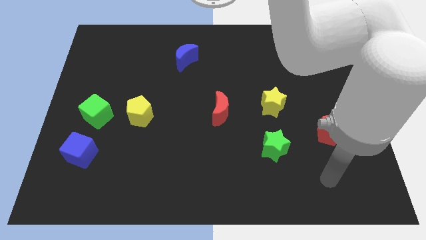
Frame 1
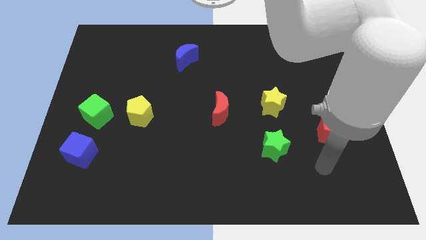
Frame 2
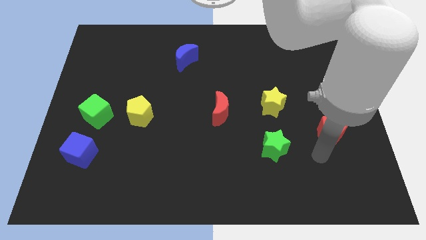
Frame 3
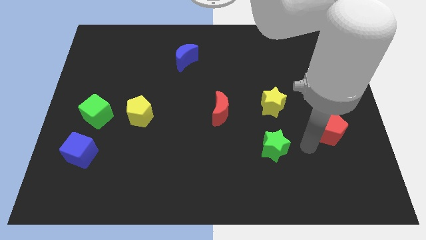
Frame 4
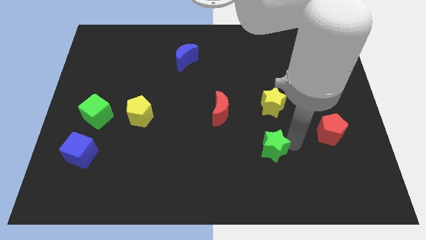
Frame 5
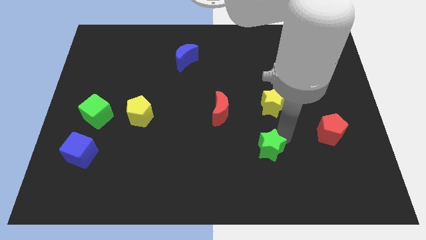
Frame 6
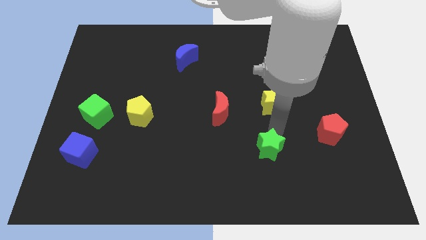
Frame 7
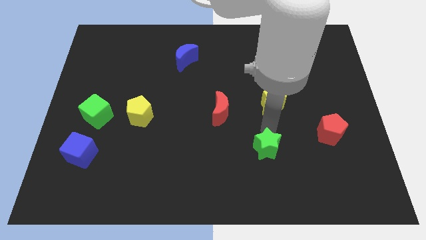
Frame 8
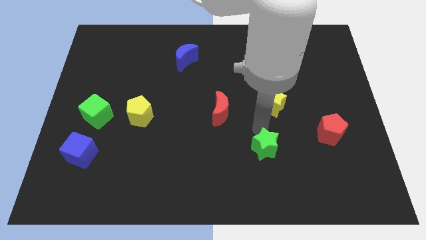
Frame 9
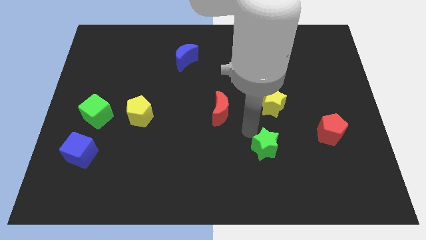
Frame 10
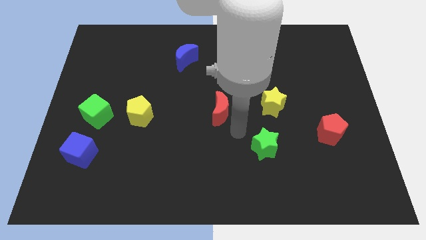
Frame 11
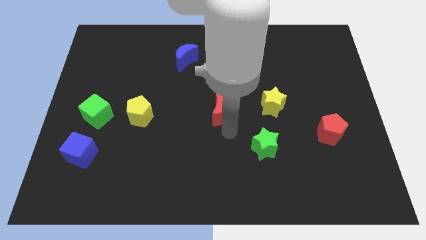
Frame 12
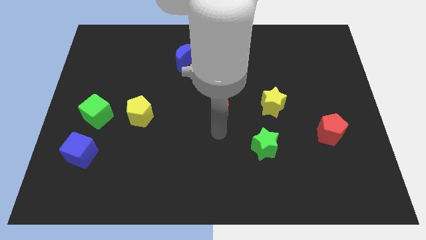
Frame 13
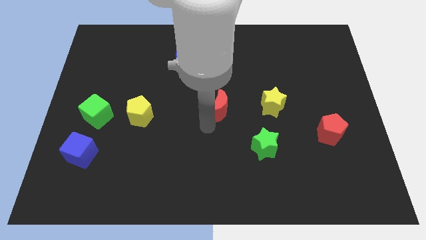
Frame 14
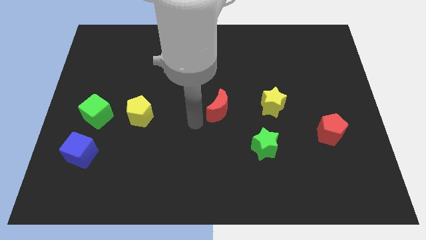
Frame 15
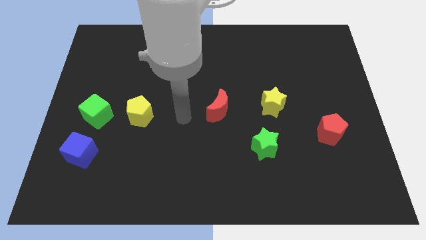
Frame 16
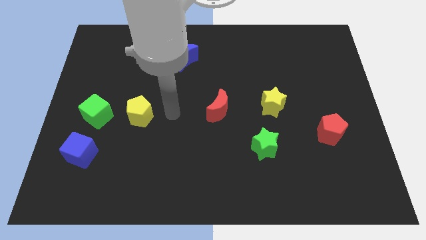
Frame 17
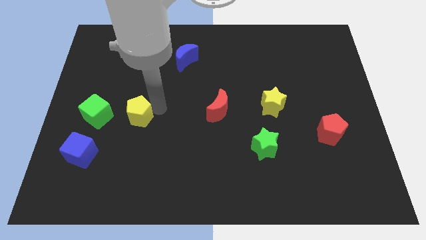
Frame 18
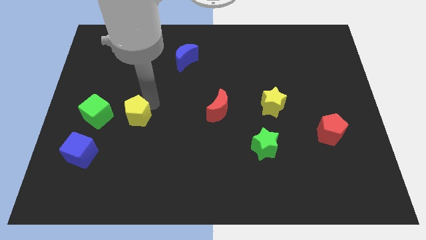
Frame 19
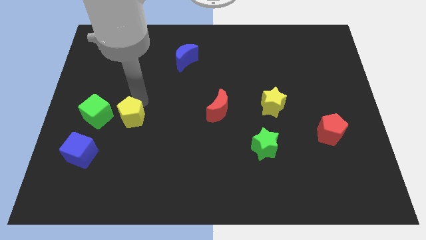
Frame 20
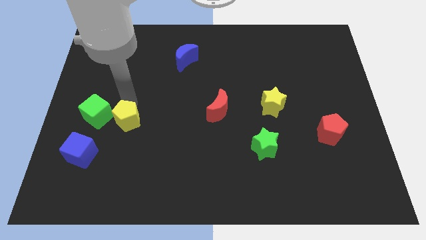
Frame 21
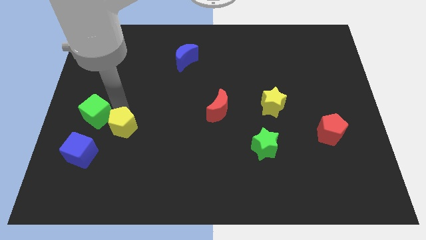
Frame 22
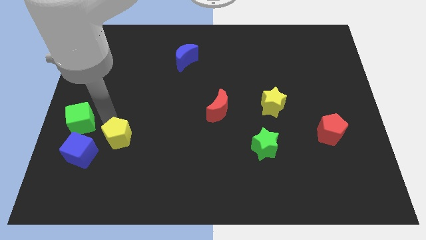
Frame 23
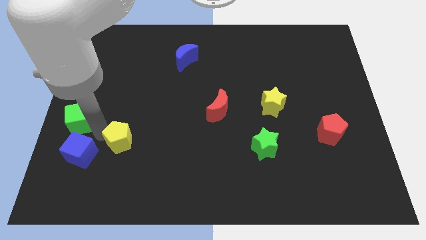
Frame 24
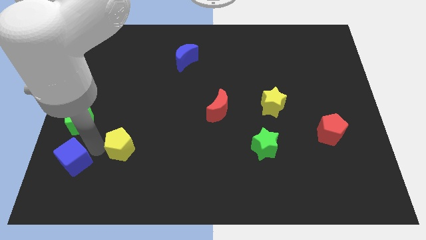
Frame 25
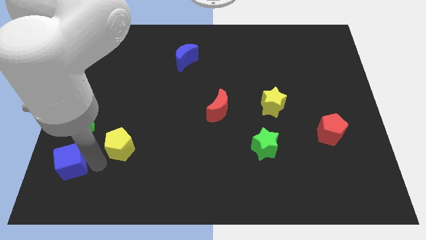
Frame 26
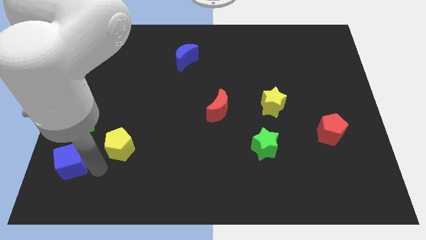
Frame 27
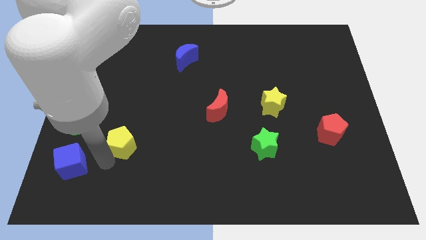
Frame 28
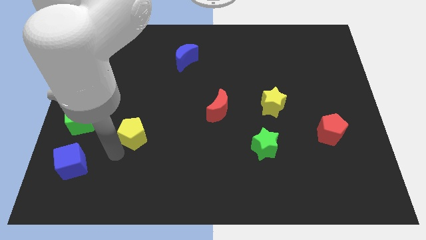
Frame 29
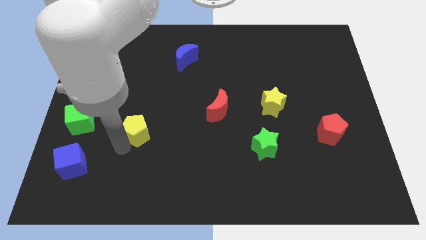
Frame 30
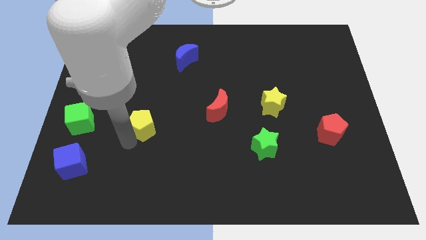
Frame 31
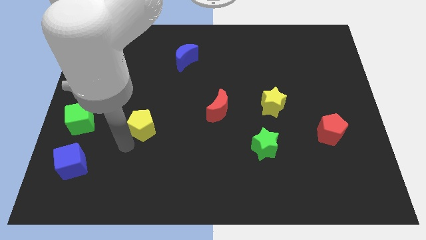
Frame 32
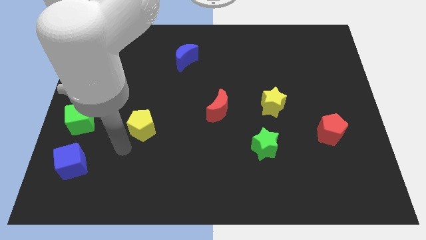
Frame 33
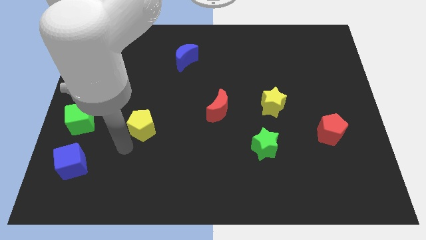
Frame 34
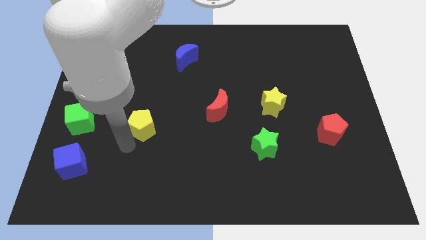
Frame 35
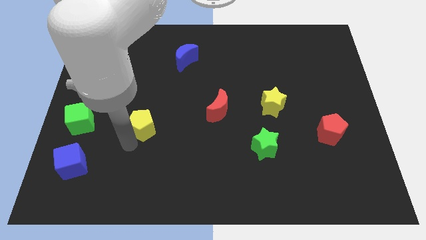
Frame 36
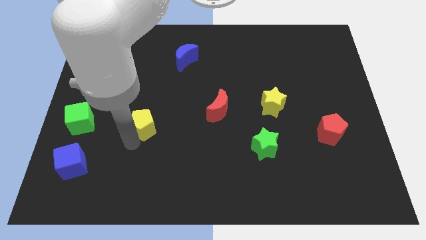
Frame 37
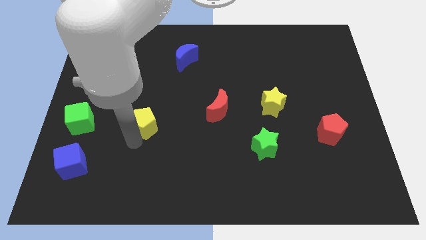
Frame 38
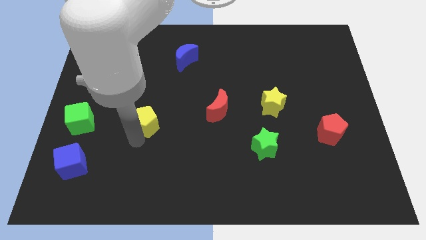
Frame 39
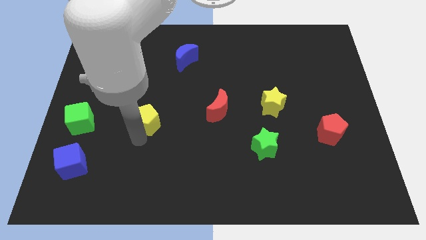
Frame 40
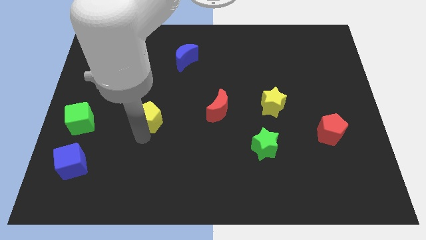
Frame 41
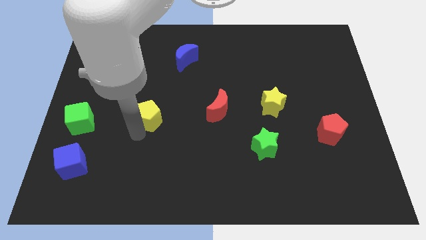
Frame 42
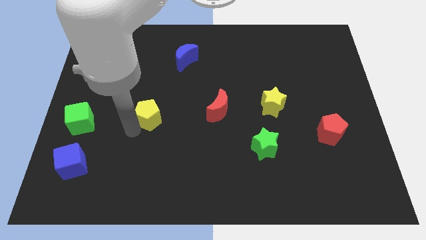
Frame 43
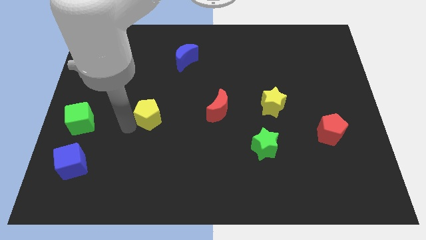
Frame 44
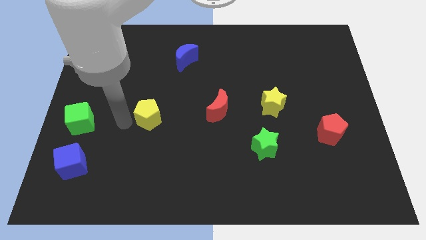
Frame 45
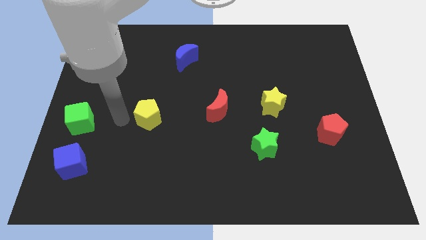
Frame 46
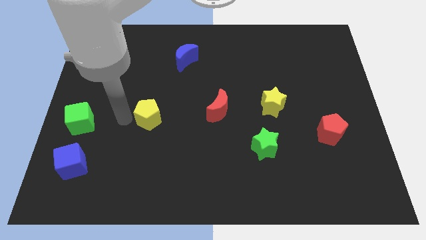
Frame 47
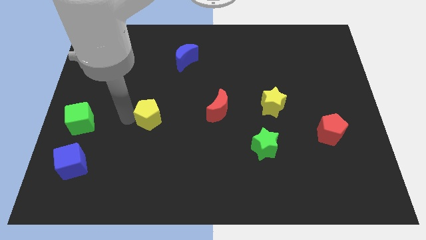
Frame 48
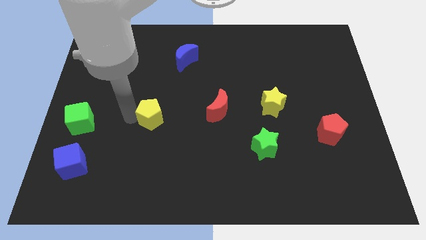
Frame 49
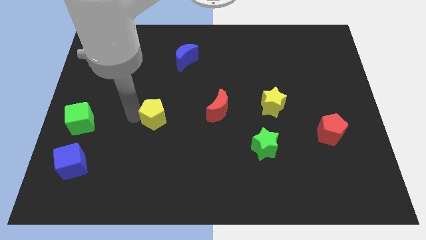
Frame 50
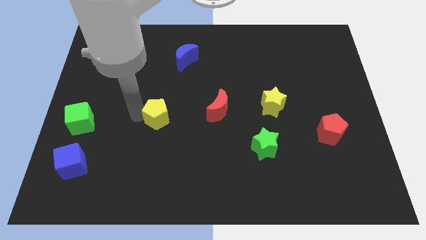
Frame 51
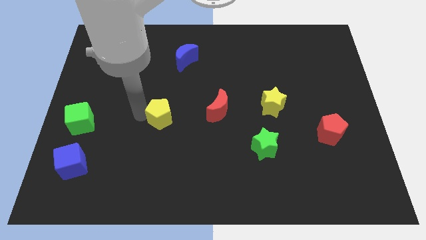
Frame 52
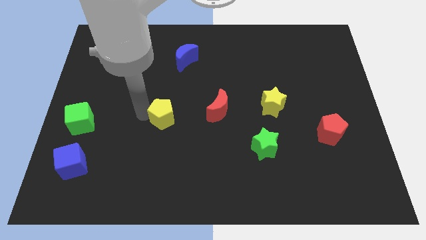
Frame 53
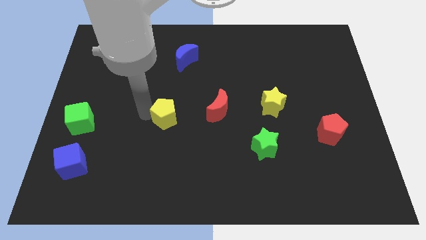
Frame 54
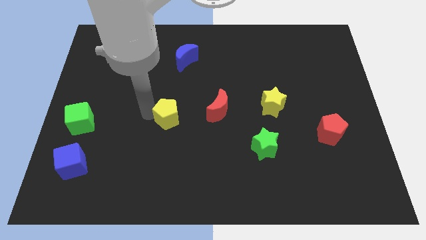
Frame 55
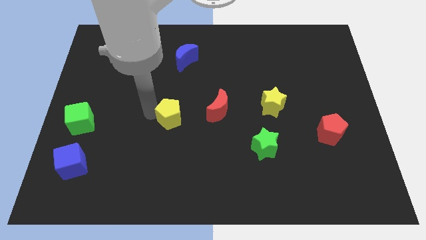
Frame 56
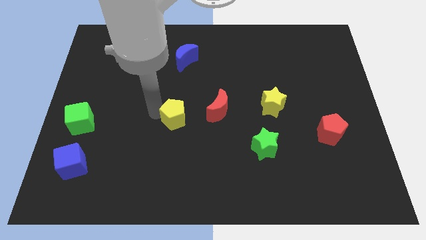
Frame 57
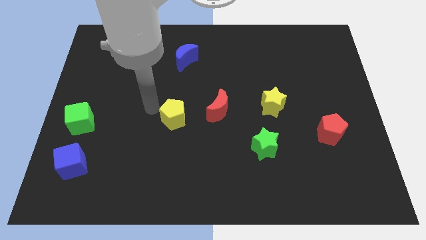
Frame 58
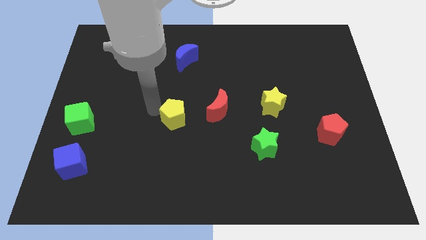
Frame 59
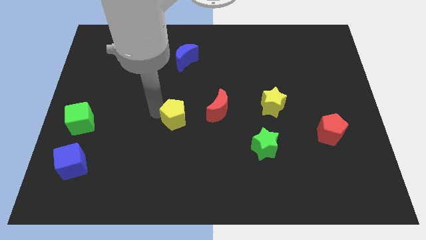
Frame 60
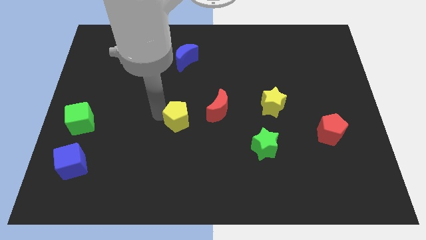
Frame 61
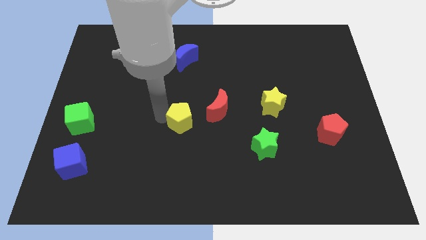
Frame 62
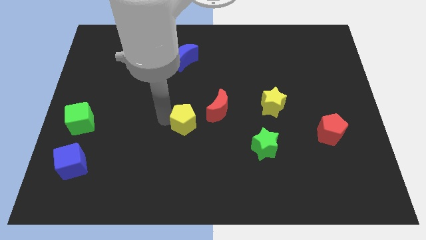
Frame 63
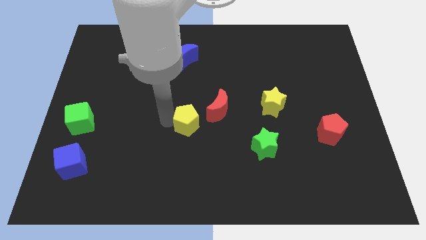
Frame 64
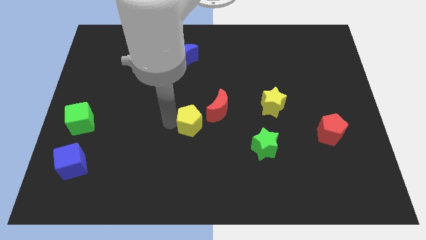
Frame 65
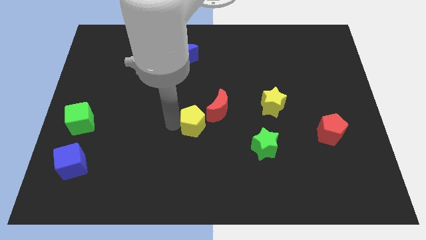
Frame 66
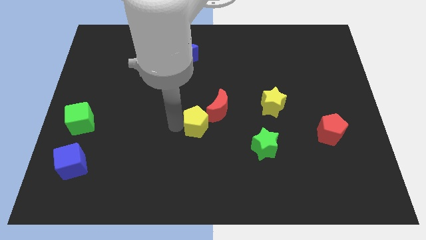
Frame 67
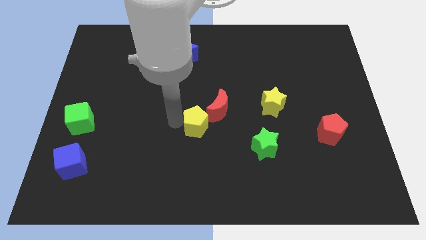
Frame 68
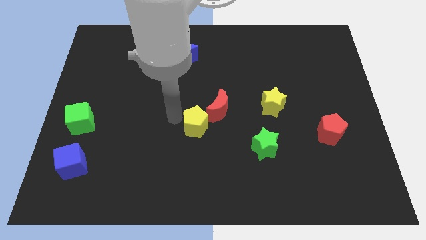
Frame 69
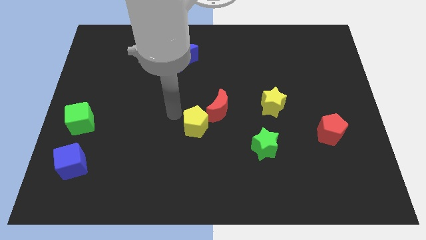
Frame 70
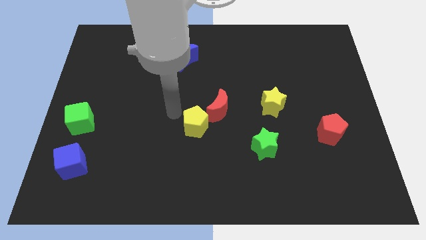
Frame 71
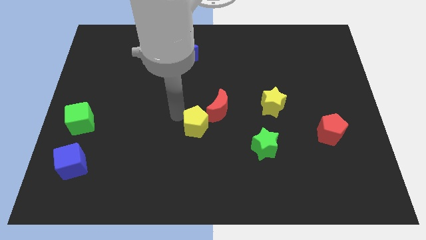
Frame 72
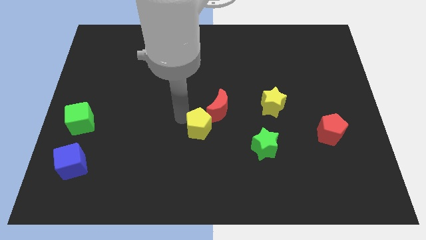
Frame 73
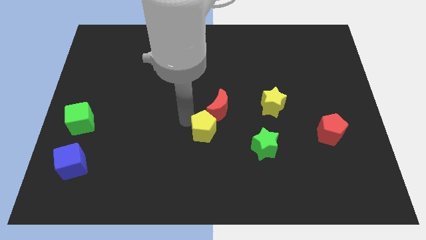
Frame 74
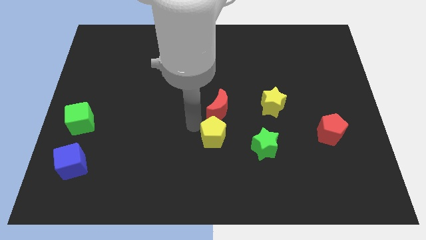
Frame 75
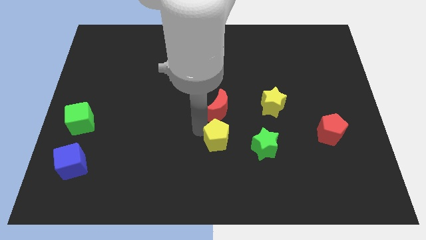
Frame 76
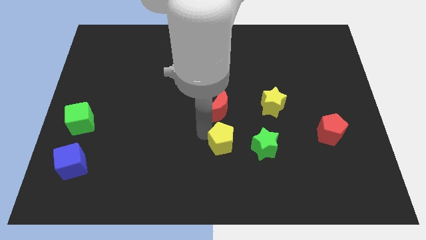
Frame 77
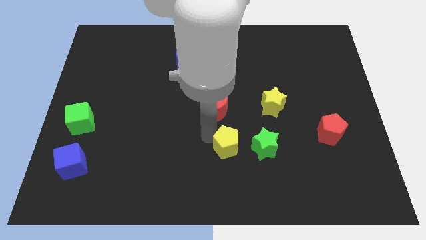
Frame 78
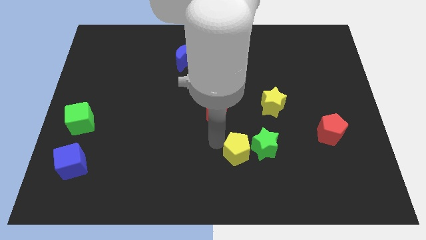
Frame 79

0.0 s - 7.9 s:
put the yellow pentagon towards the green star
